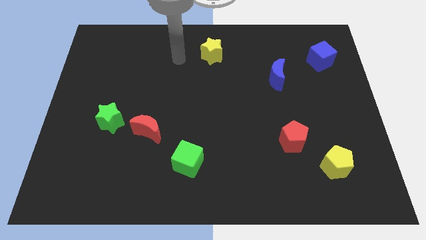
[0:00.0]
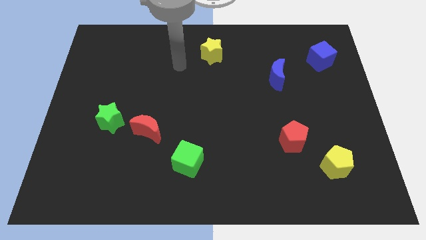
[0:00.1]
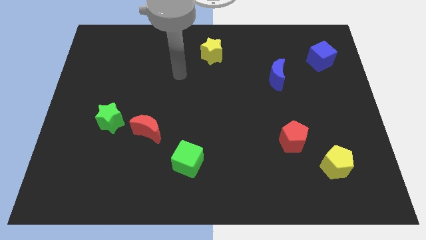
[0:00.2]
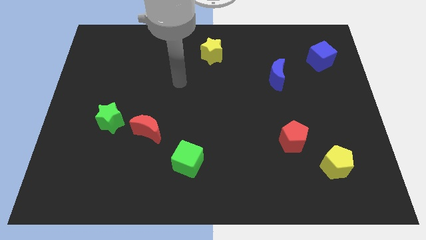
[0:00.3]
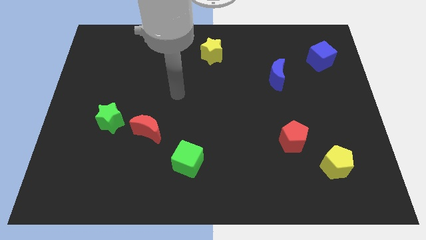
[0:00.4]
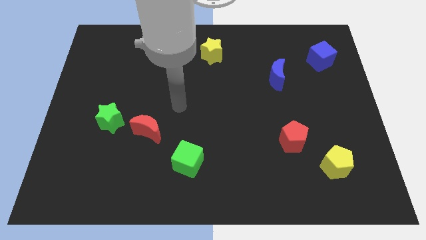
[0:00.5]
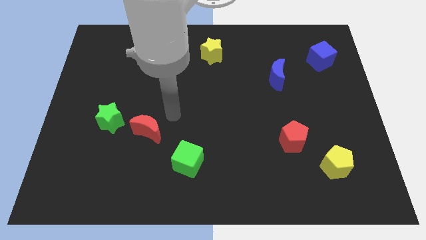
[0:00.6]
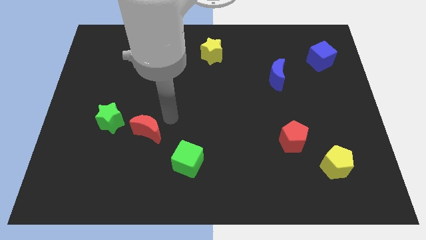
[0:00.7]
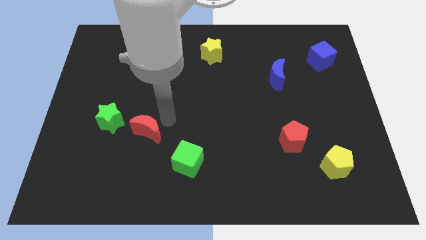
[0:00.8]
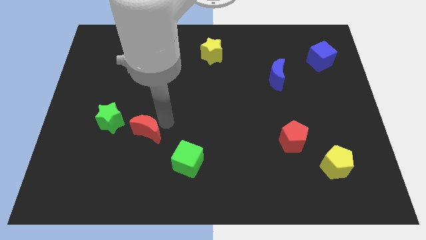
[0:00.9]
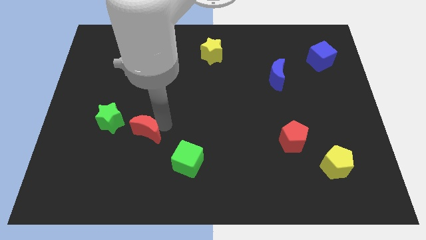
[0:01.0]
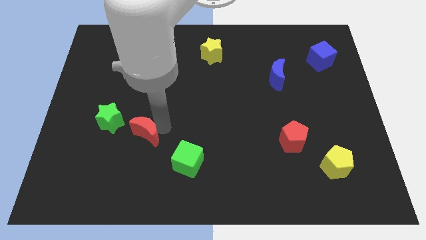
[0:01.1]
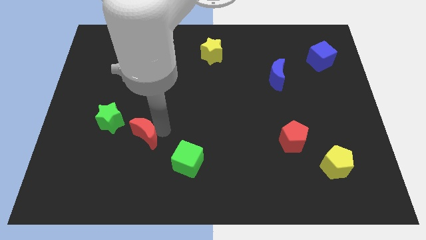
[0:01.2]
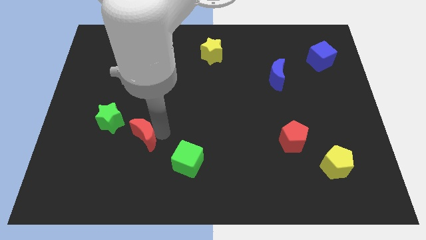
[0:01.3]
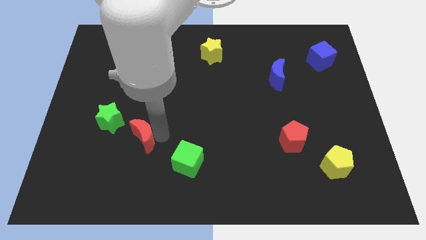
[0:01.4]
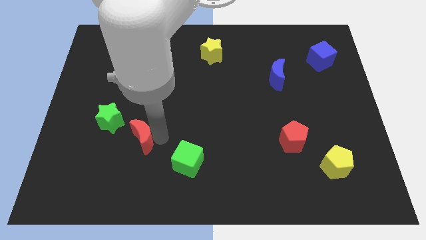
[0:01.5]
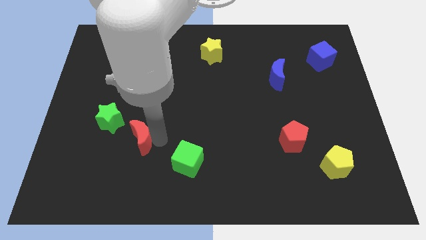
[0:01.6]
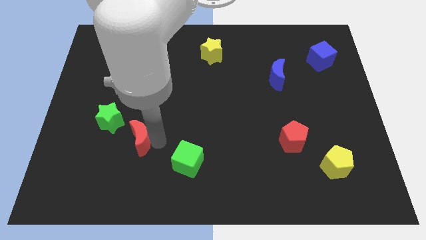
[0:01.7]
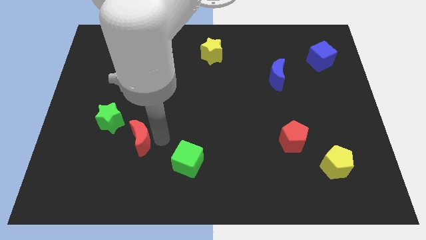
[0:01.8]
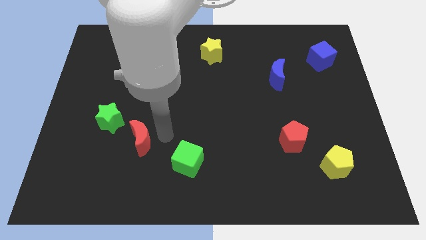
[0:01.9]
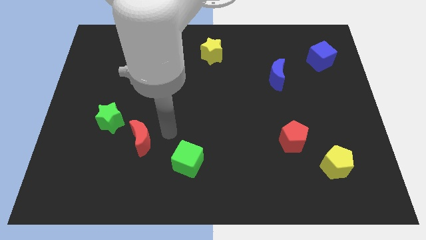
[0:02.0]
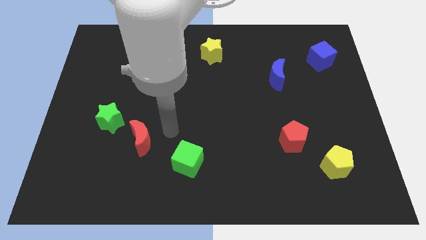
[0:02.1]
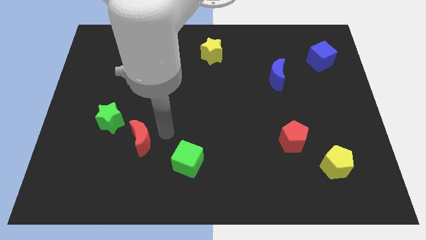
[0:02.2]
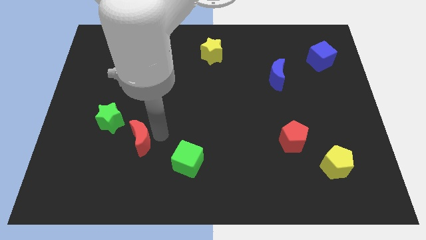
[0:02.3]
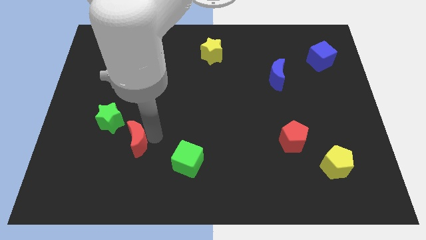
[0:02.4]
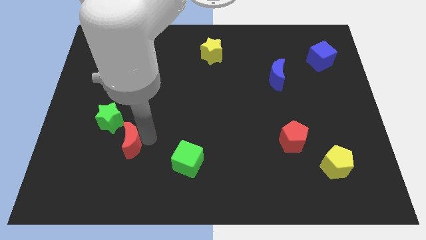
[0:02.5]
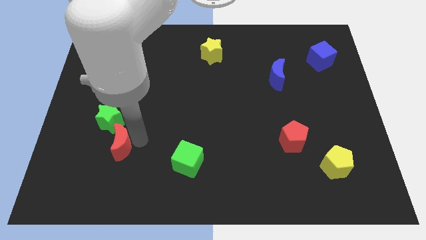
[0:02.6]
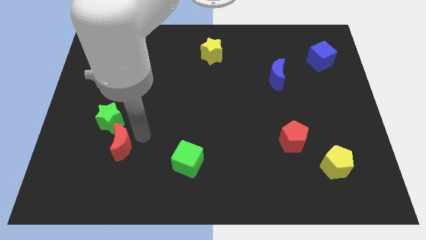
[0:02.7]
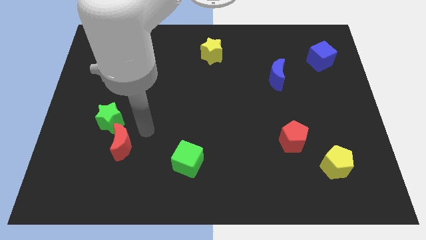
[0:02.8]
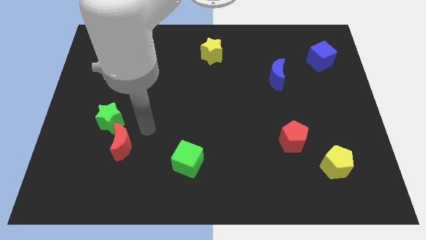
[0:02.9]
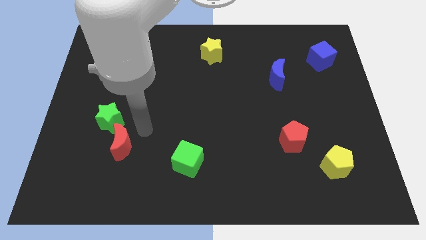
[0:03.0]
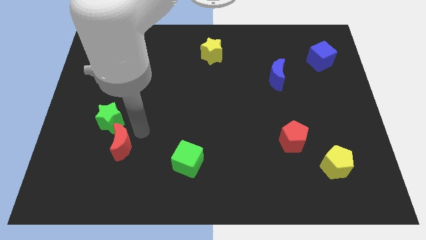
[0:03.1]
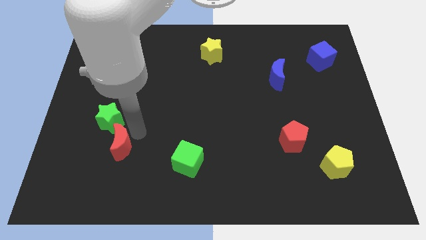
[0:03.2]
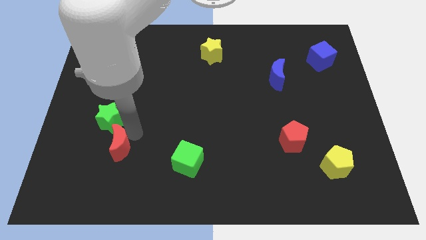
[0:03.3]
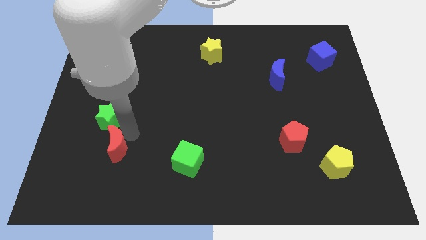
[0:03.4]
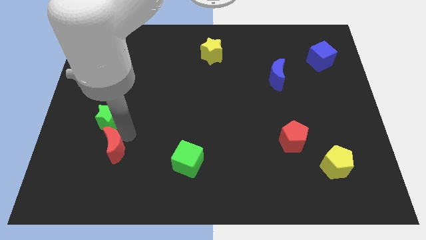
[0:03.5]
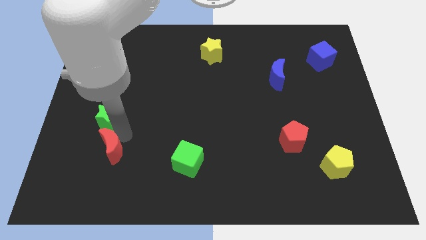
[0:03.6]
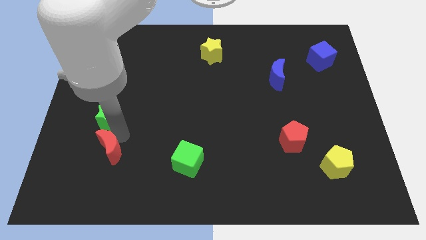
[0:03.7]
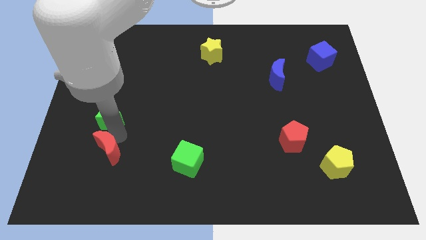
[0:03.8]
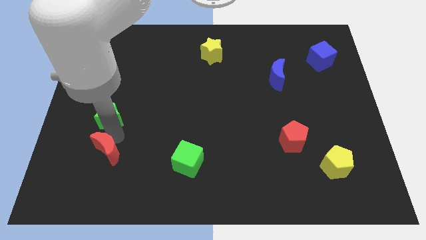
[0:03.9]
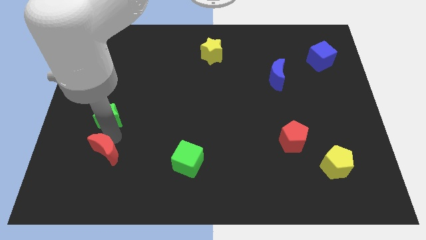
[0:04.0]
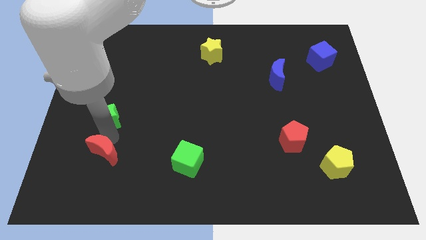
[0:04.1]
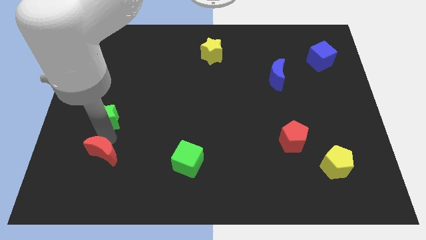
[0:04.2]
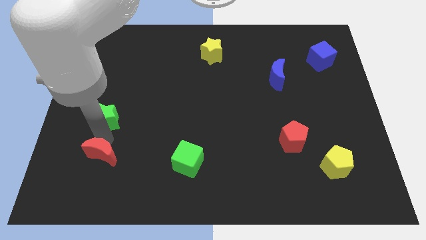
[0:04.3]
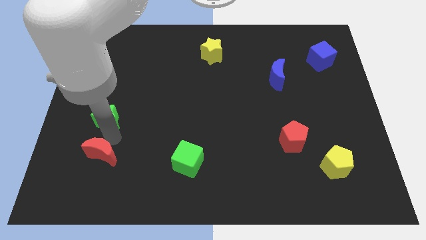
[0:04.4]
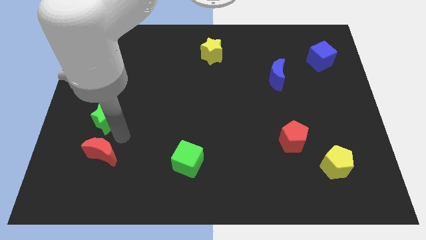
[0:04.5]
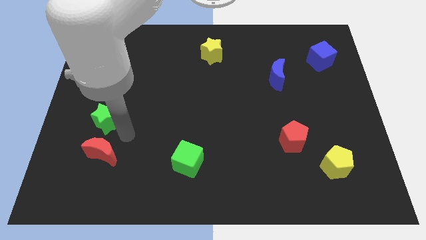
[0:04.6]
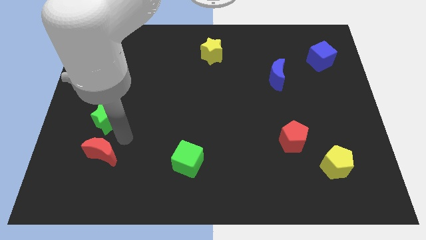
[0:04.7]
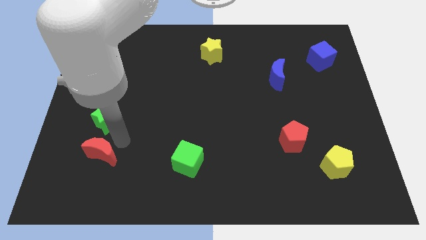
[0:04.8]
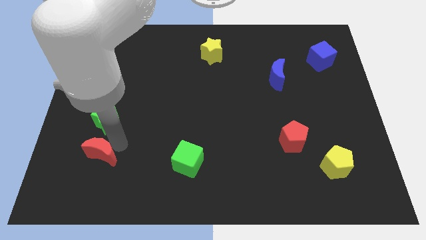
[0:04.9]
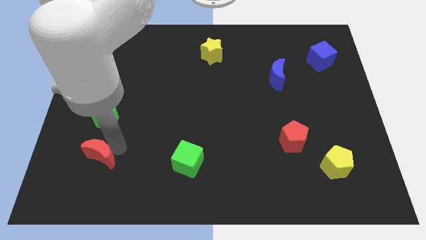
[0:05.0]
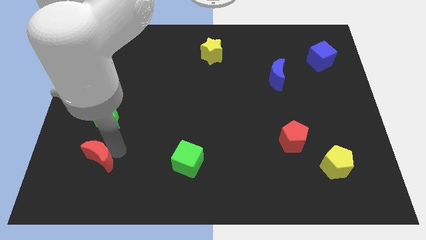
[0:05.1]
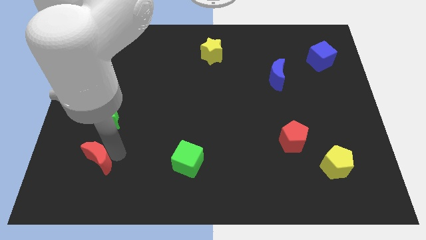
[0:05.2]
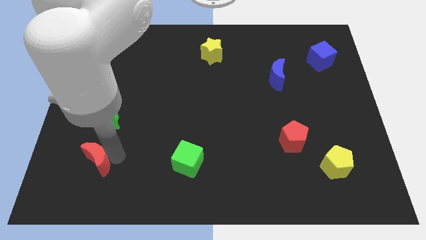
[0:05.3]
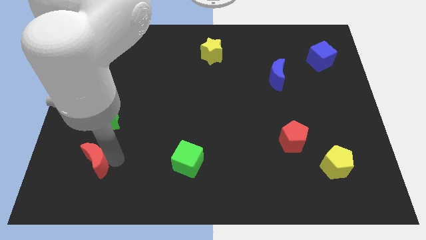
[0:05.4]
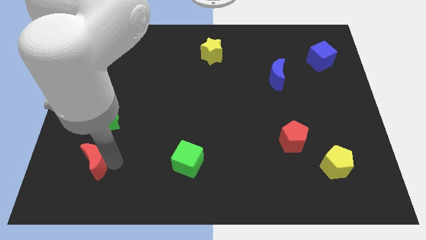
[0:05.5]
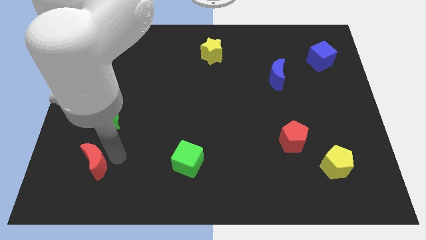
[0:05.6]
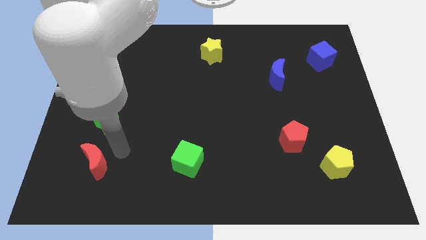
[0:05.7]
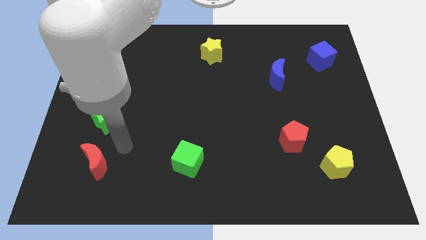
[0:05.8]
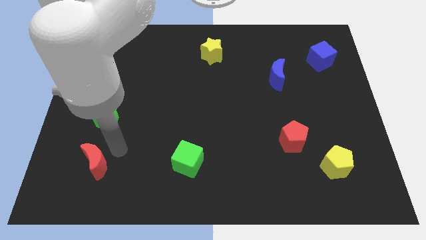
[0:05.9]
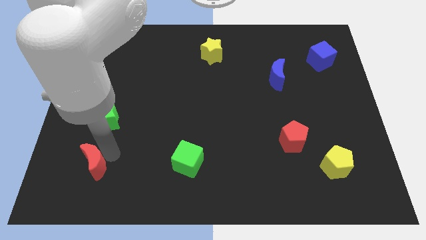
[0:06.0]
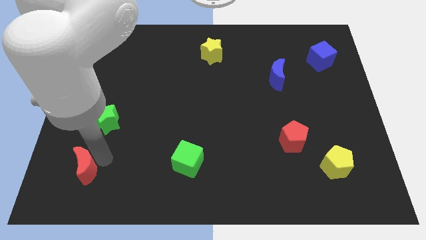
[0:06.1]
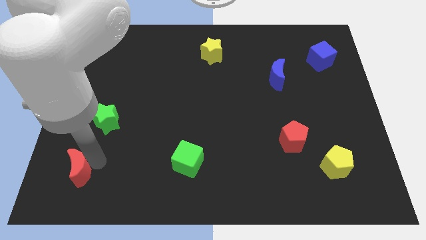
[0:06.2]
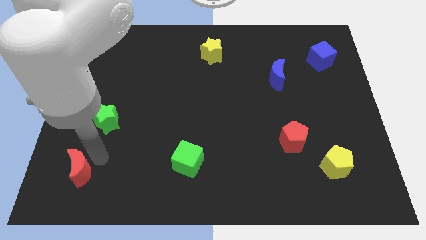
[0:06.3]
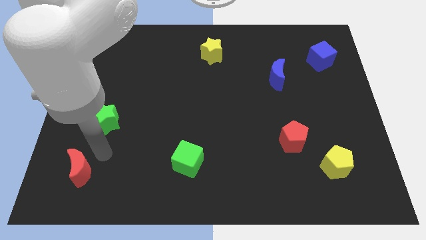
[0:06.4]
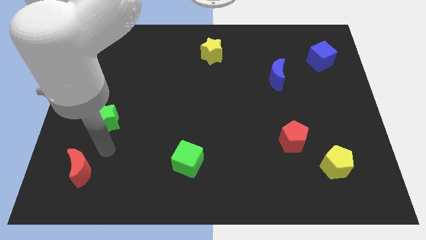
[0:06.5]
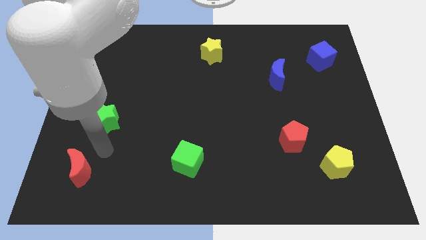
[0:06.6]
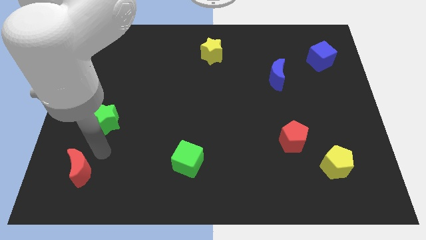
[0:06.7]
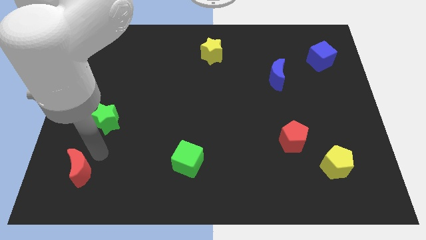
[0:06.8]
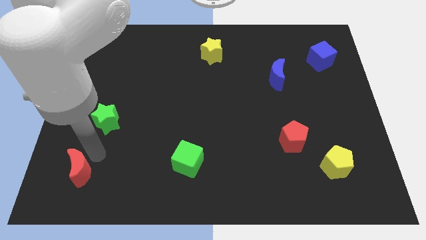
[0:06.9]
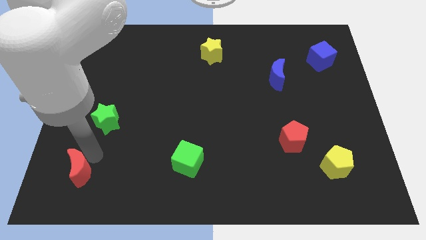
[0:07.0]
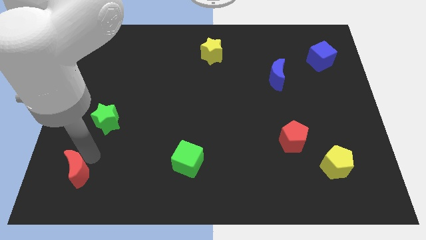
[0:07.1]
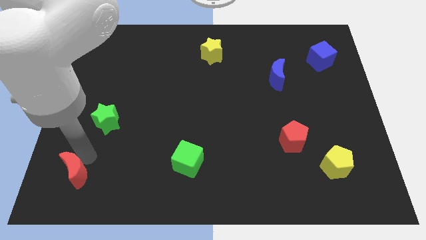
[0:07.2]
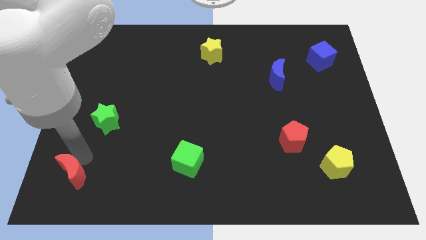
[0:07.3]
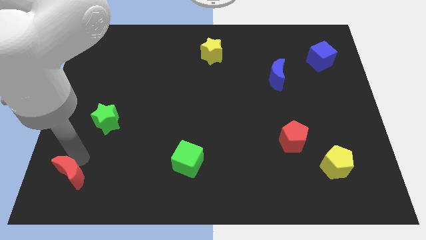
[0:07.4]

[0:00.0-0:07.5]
push the red moon to the bottom left of the board
